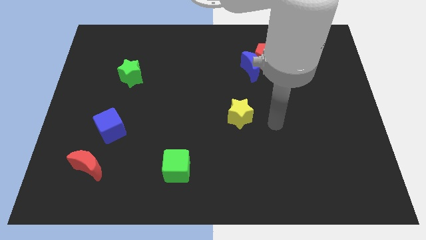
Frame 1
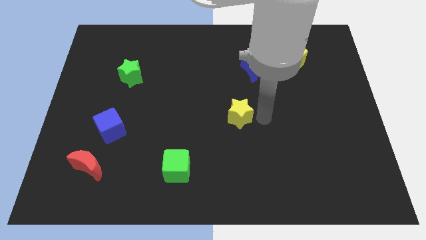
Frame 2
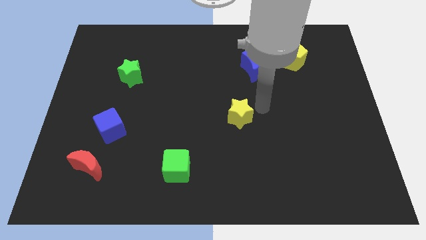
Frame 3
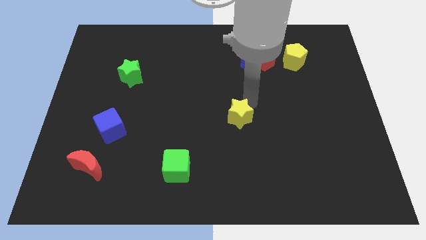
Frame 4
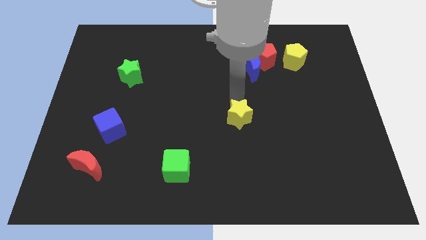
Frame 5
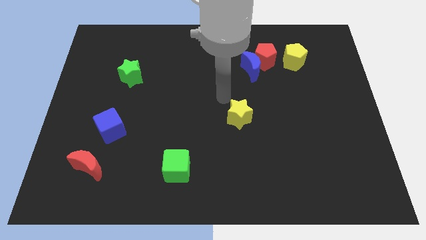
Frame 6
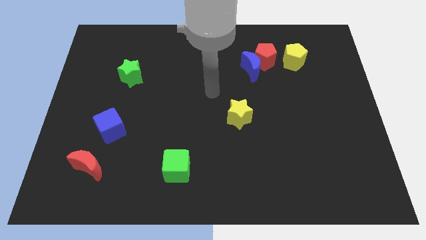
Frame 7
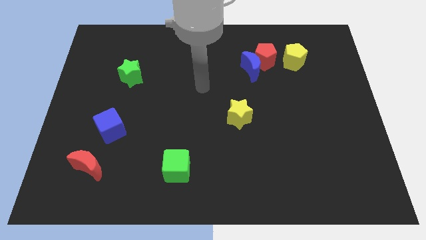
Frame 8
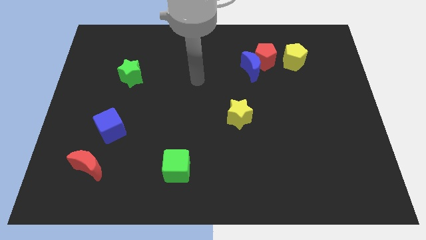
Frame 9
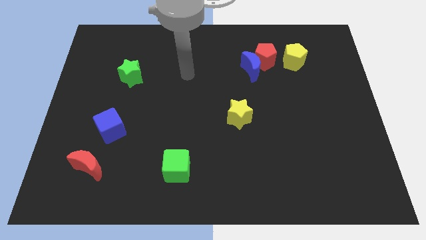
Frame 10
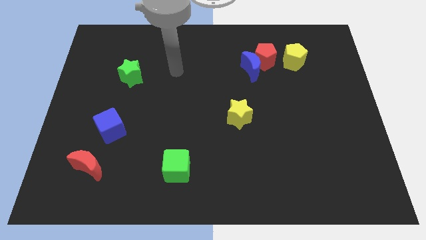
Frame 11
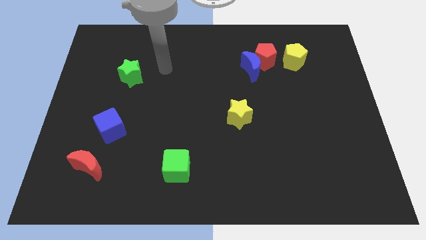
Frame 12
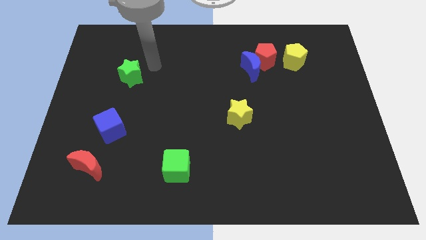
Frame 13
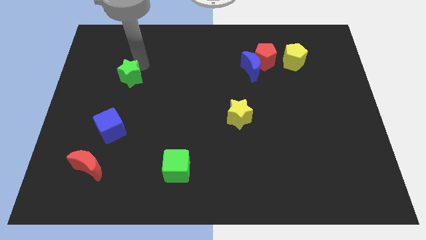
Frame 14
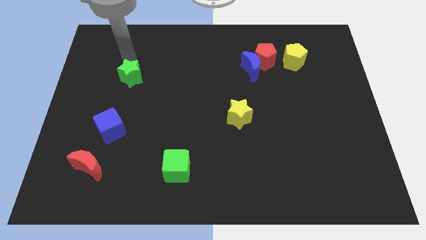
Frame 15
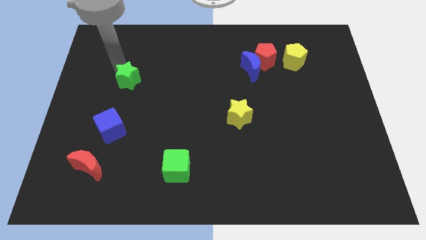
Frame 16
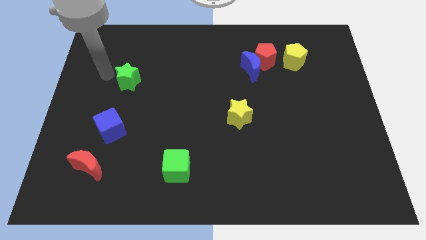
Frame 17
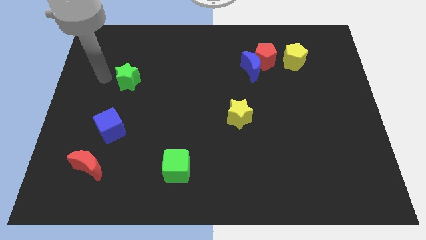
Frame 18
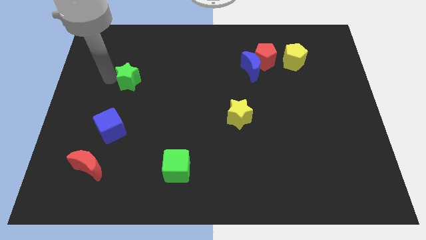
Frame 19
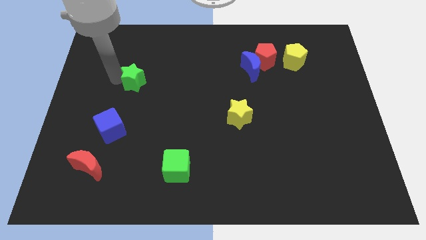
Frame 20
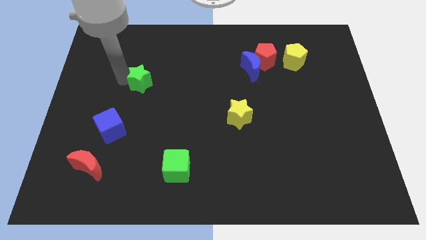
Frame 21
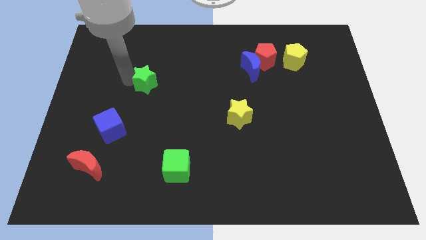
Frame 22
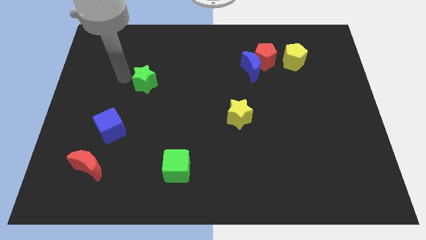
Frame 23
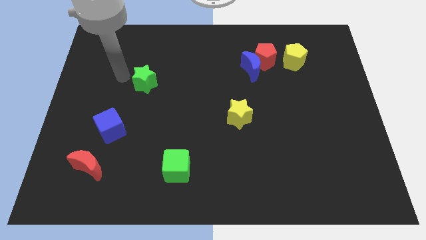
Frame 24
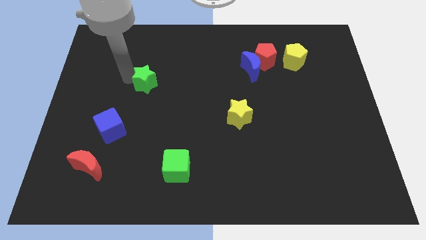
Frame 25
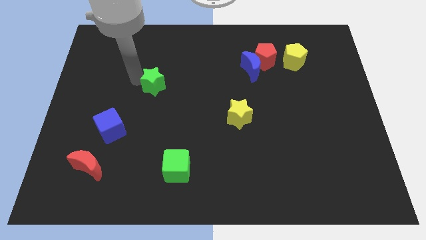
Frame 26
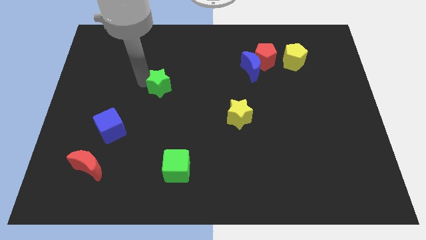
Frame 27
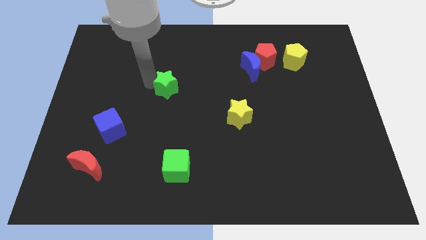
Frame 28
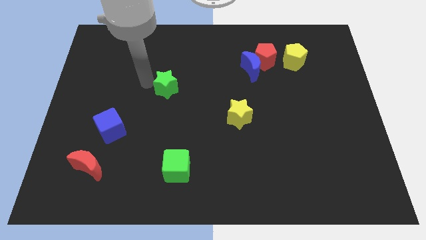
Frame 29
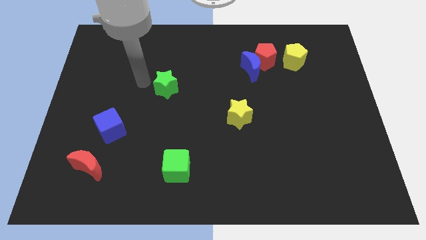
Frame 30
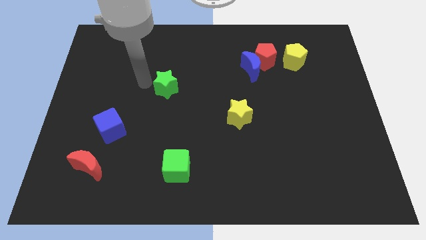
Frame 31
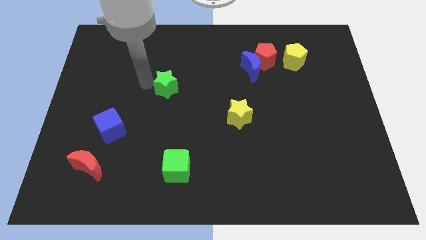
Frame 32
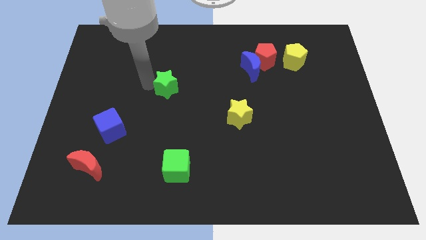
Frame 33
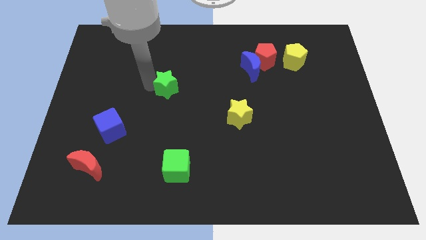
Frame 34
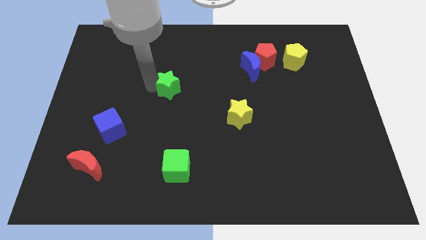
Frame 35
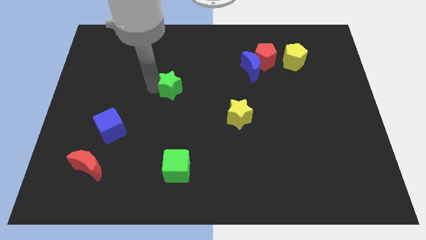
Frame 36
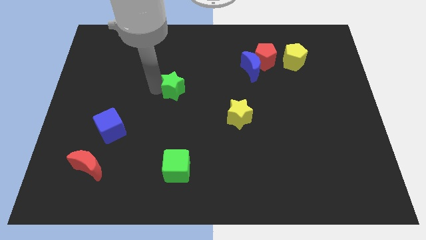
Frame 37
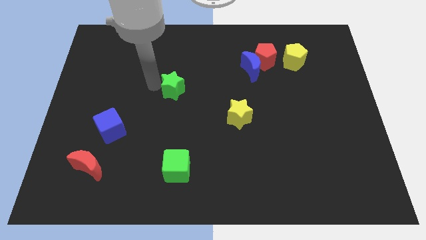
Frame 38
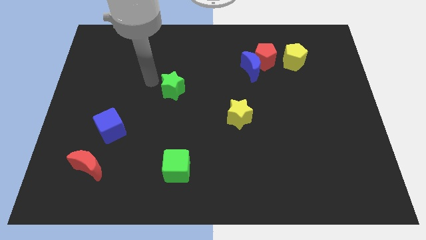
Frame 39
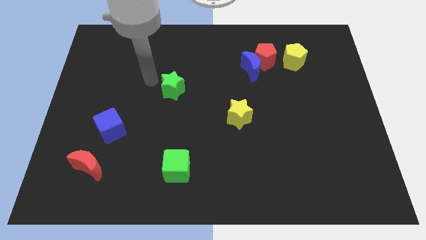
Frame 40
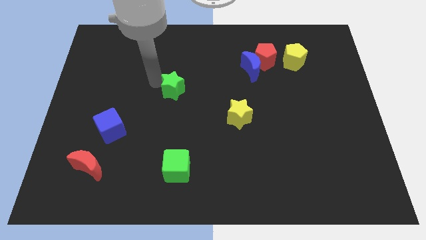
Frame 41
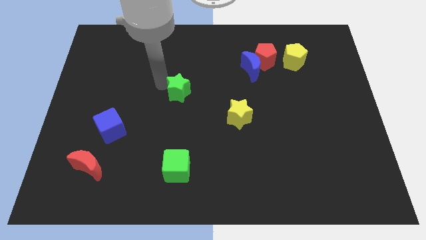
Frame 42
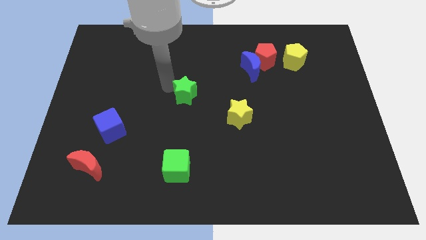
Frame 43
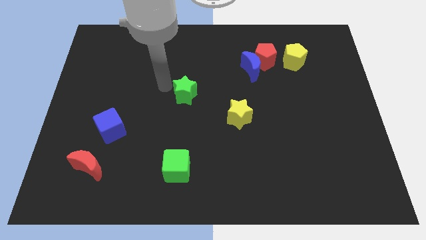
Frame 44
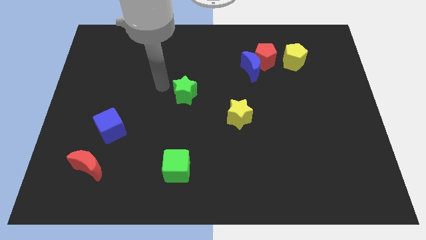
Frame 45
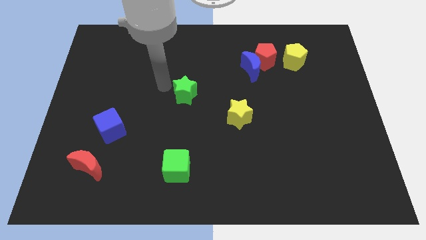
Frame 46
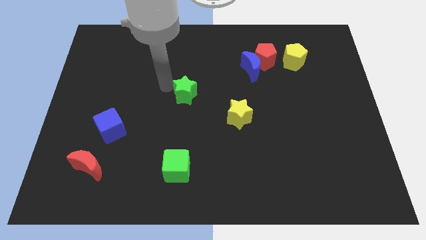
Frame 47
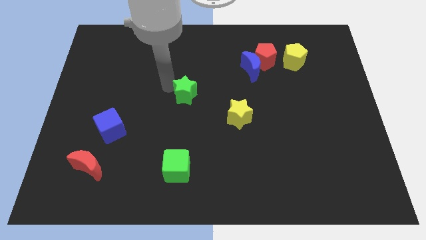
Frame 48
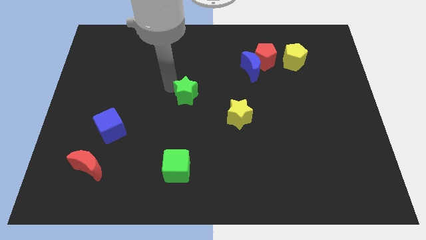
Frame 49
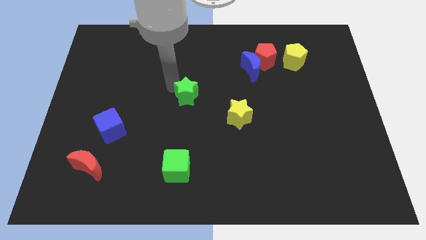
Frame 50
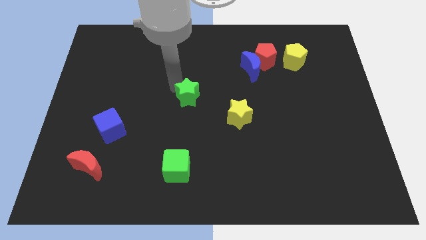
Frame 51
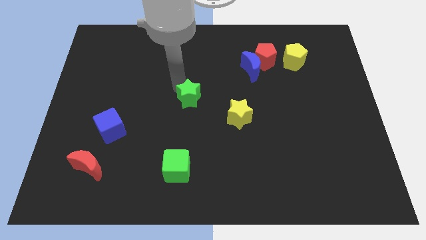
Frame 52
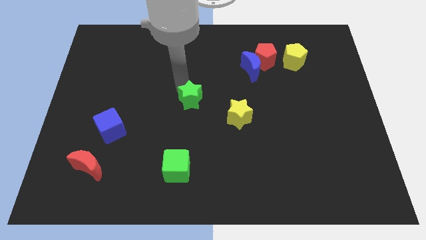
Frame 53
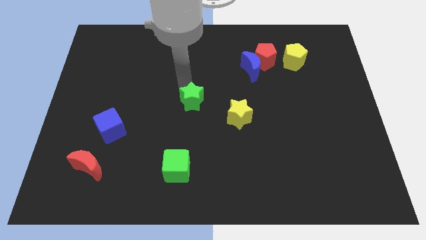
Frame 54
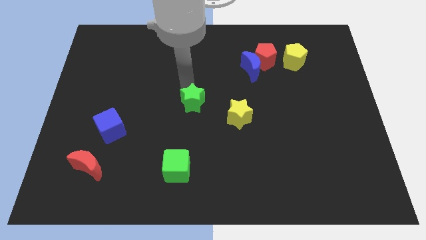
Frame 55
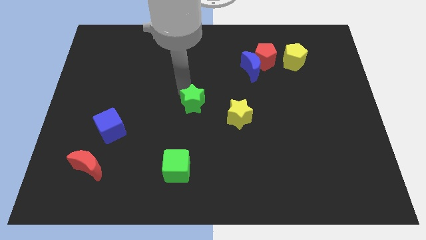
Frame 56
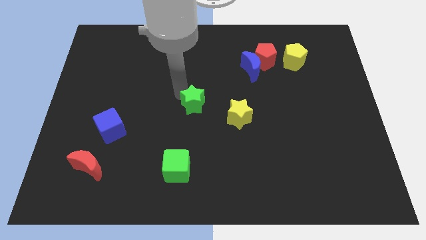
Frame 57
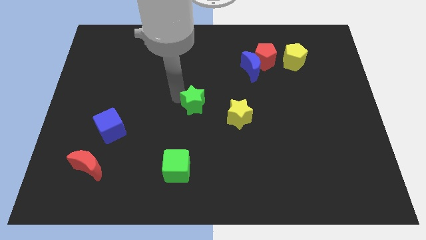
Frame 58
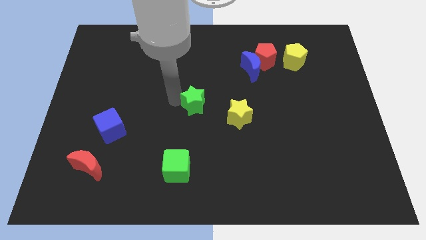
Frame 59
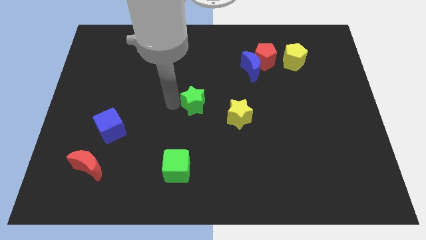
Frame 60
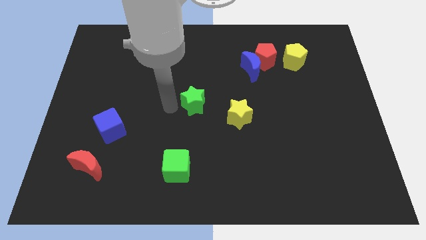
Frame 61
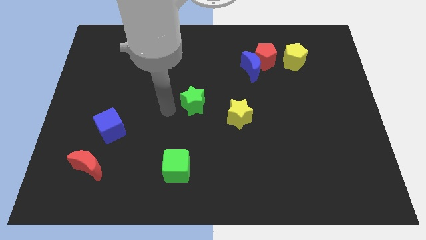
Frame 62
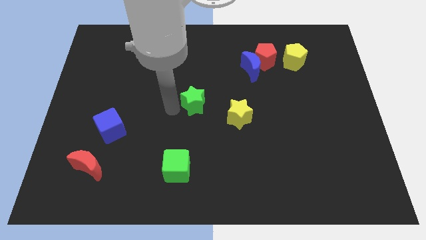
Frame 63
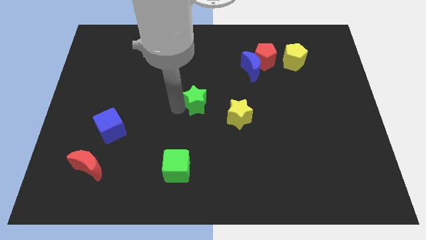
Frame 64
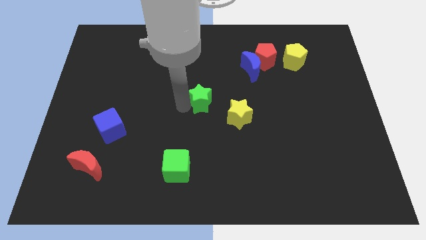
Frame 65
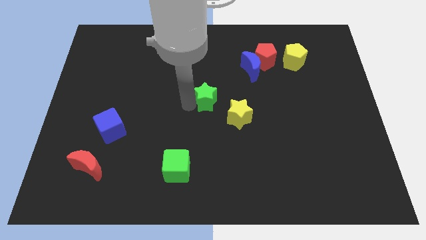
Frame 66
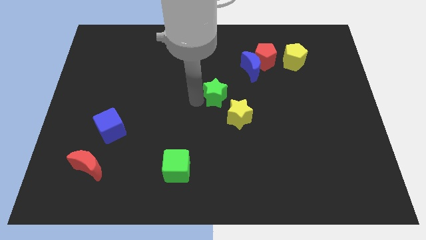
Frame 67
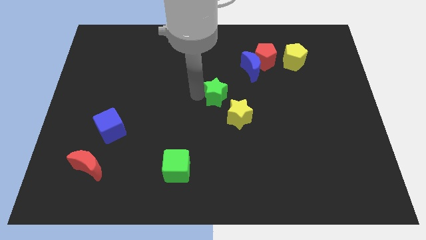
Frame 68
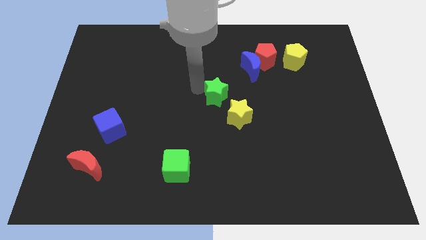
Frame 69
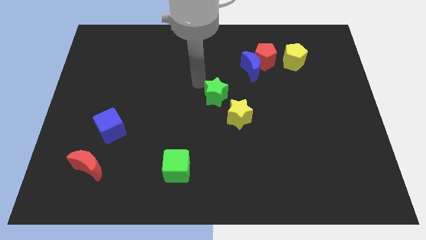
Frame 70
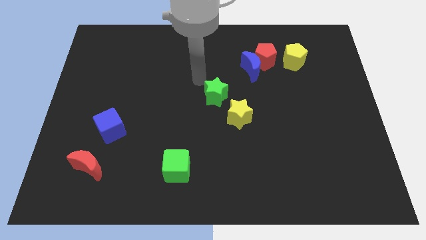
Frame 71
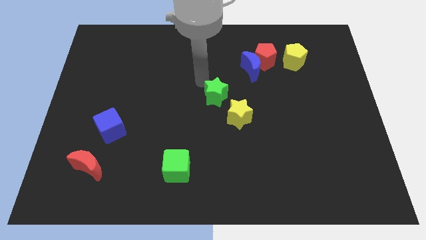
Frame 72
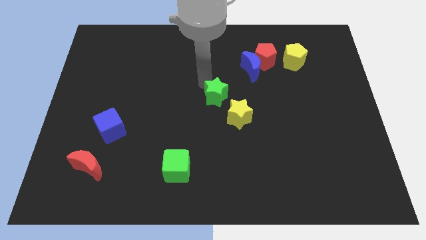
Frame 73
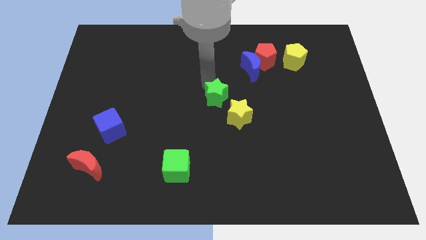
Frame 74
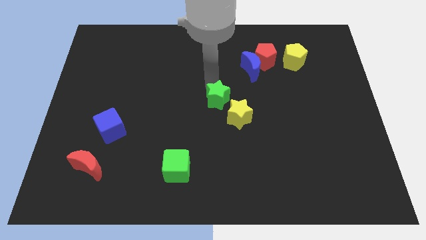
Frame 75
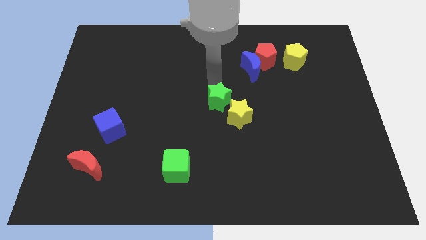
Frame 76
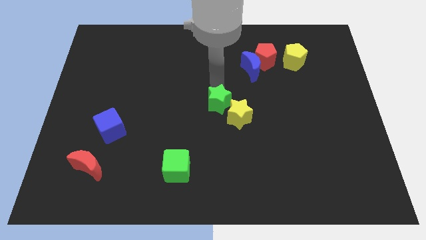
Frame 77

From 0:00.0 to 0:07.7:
slide the green star to the yellow star
